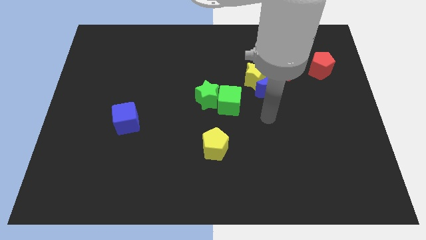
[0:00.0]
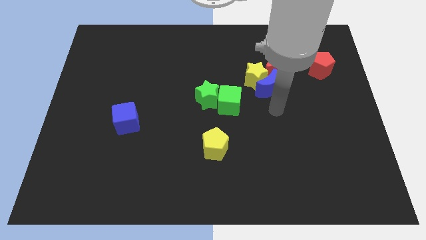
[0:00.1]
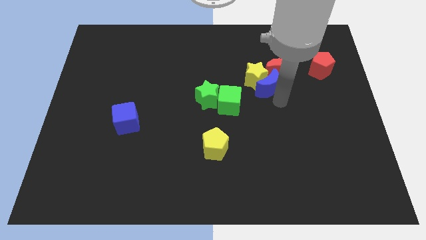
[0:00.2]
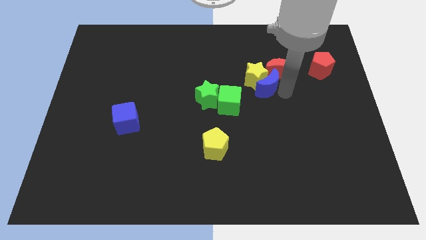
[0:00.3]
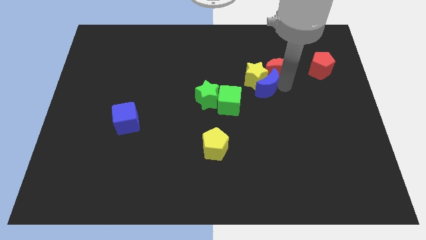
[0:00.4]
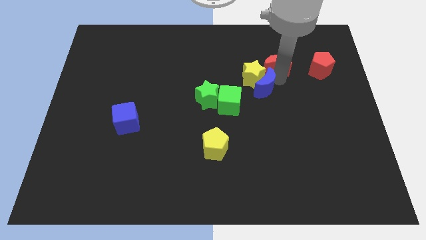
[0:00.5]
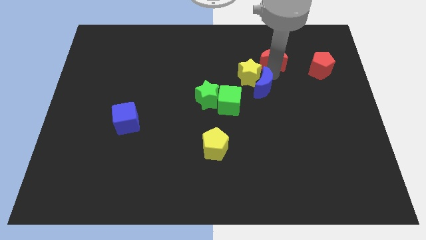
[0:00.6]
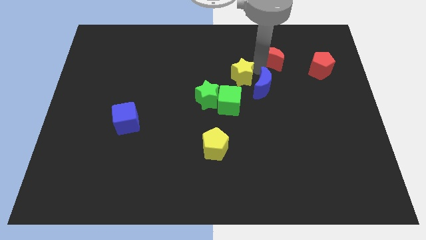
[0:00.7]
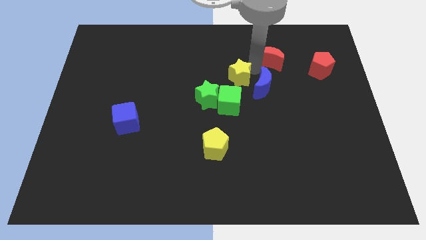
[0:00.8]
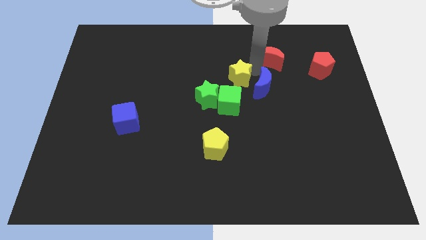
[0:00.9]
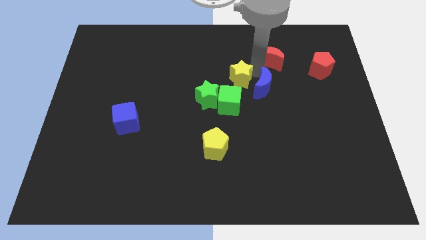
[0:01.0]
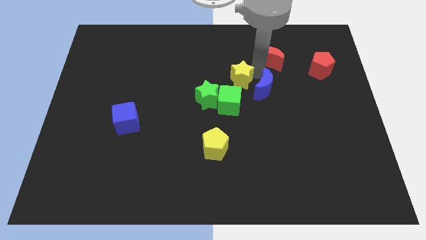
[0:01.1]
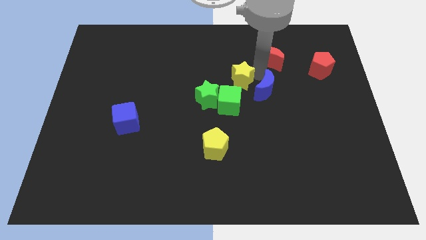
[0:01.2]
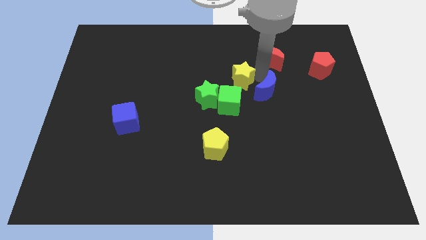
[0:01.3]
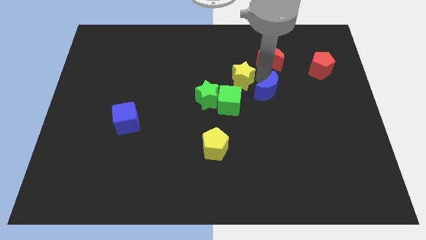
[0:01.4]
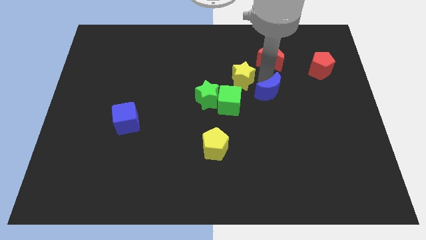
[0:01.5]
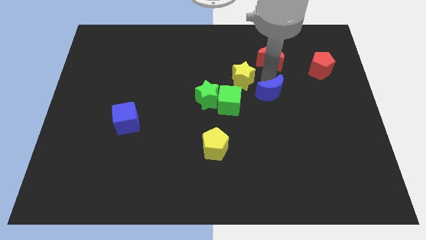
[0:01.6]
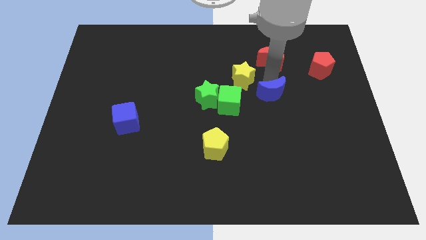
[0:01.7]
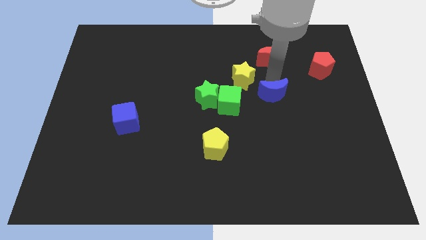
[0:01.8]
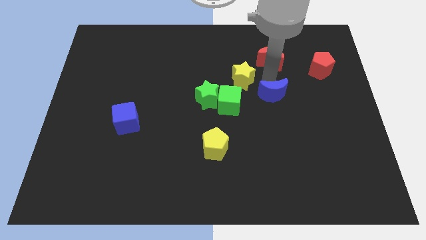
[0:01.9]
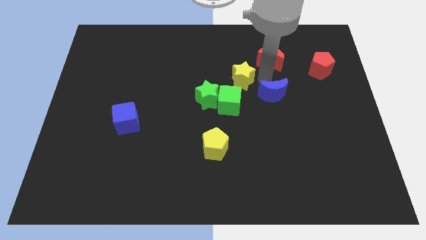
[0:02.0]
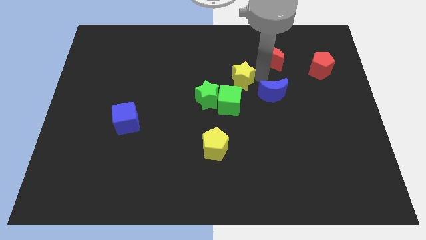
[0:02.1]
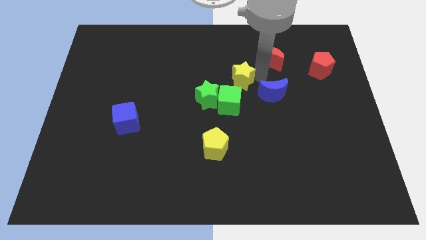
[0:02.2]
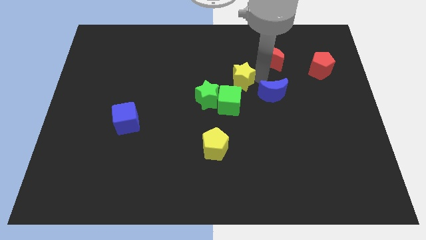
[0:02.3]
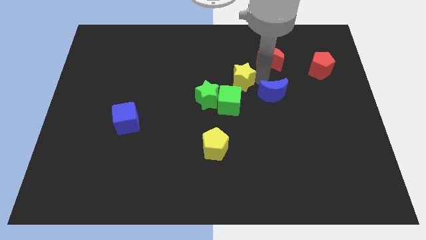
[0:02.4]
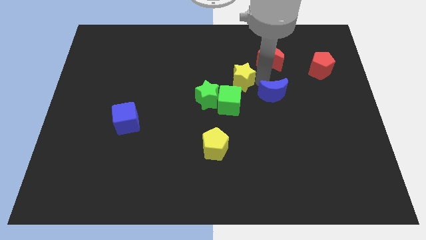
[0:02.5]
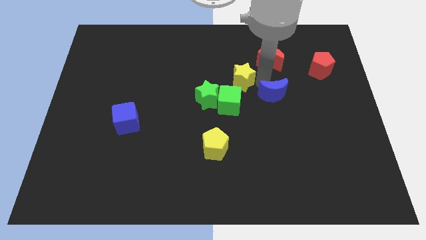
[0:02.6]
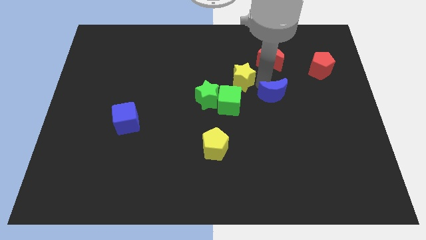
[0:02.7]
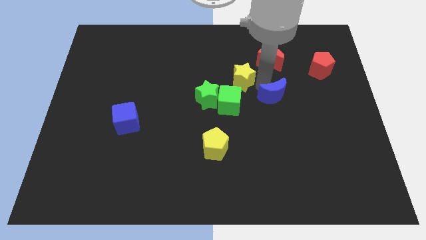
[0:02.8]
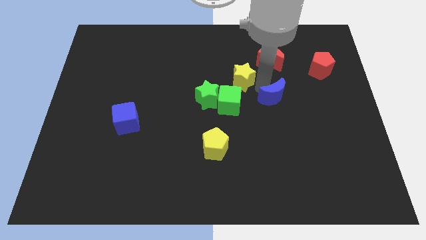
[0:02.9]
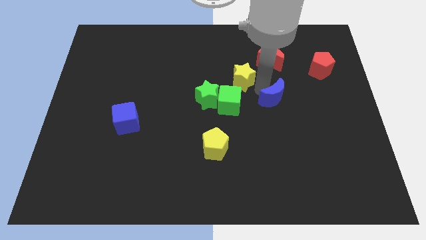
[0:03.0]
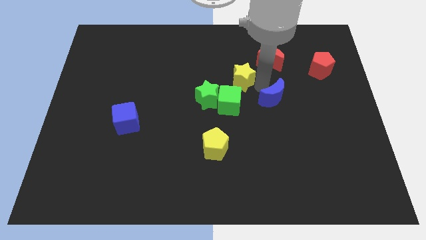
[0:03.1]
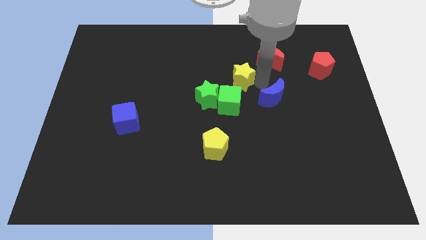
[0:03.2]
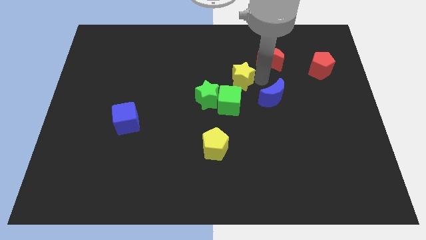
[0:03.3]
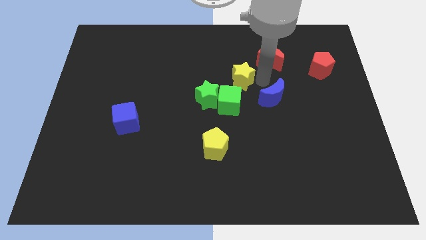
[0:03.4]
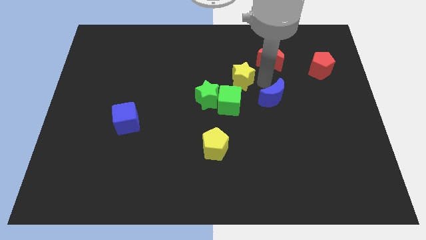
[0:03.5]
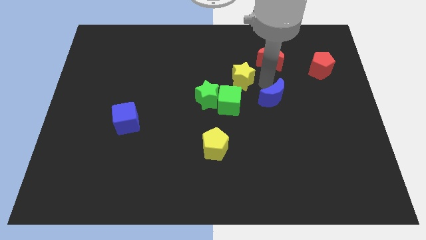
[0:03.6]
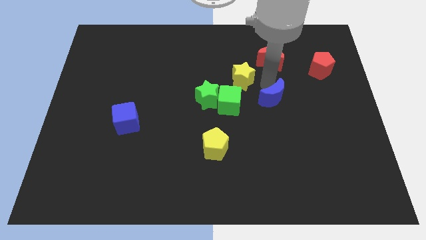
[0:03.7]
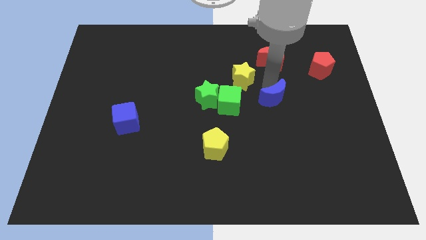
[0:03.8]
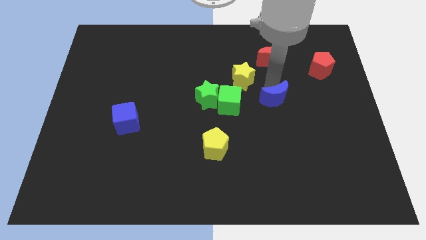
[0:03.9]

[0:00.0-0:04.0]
separate the blue moon from the yellow star and red moon

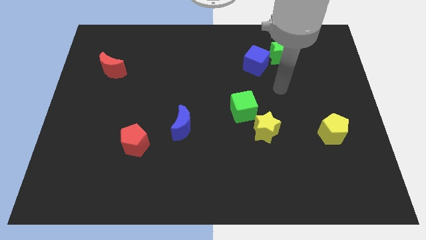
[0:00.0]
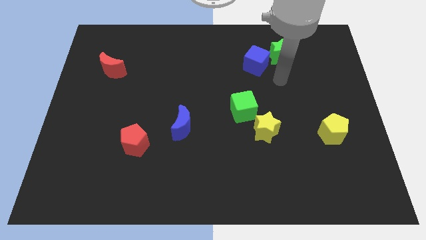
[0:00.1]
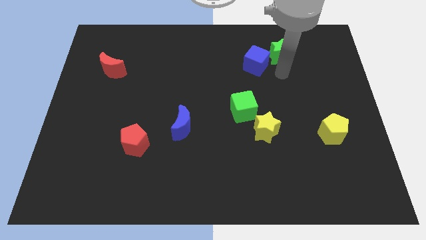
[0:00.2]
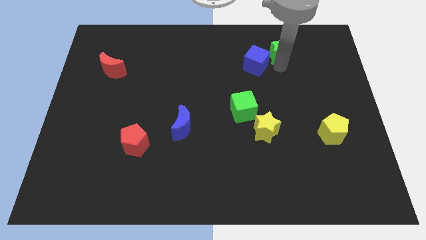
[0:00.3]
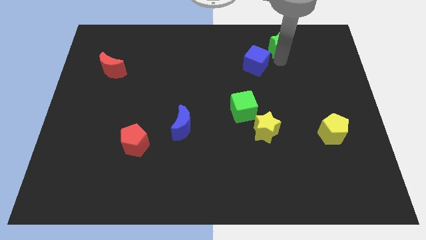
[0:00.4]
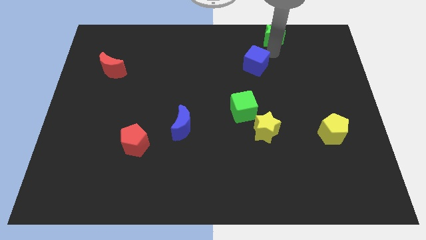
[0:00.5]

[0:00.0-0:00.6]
move the blue cube away from the green star

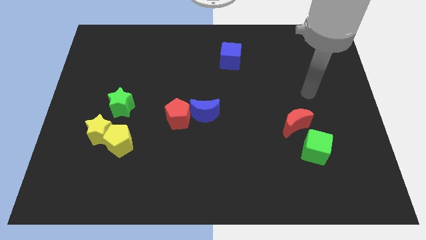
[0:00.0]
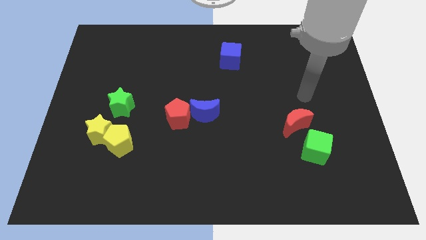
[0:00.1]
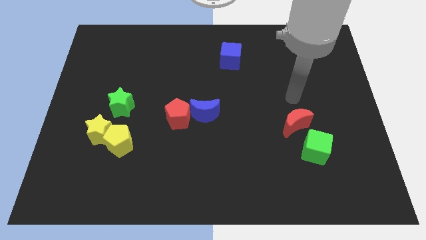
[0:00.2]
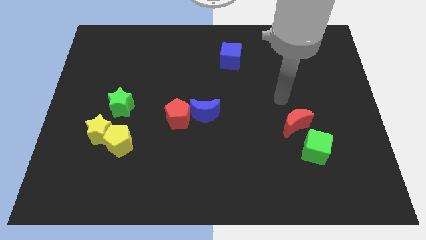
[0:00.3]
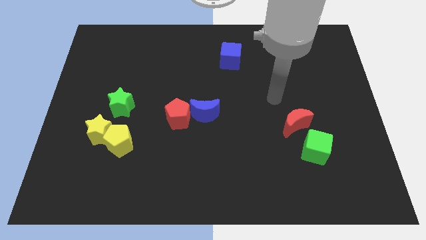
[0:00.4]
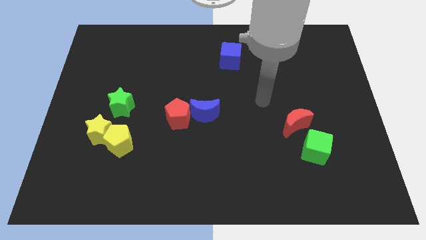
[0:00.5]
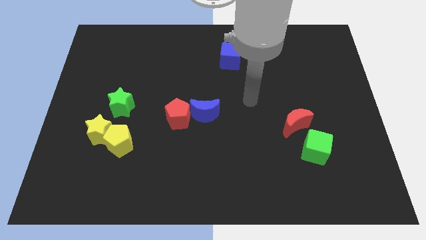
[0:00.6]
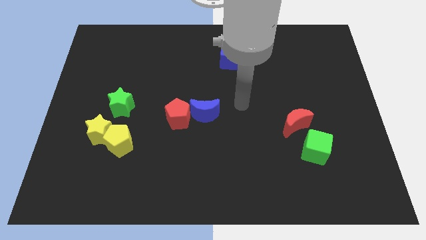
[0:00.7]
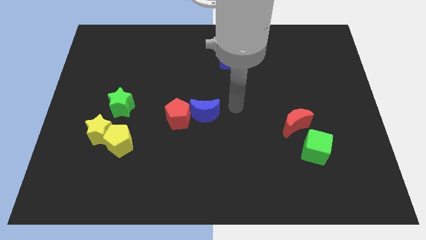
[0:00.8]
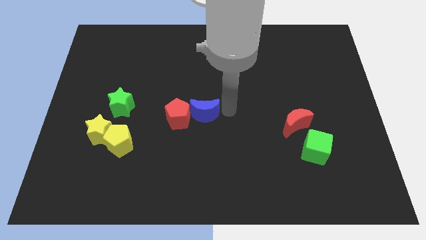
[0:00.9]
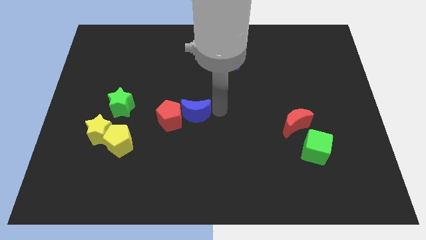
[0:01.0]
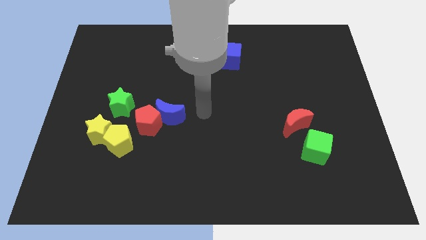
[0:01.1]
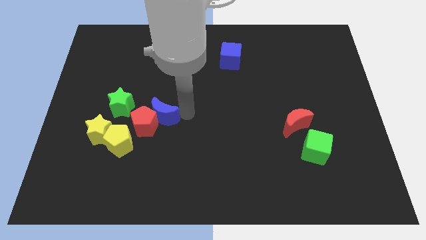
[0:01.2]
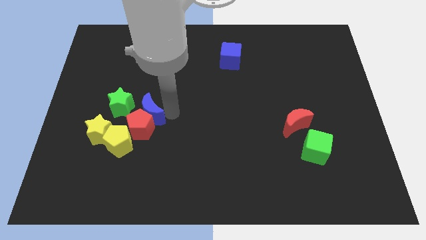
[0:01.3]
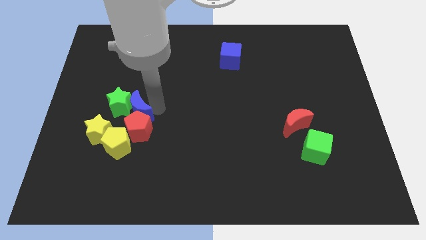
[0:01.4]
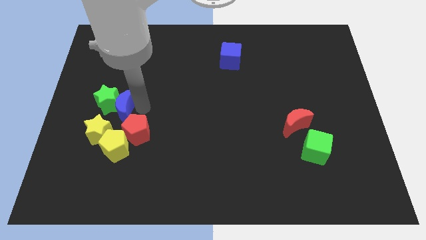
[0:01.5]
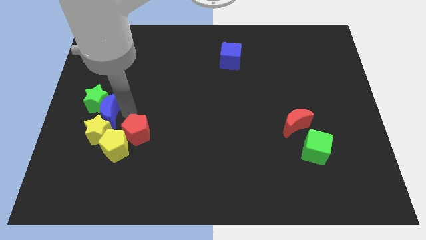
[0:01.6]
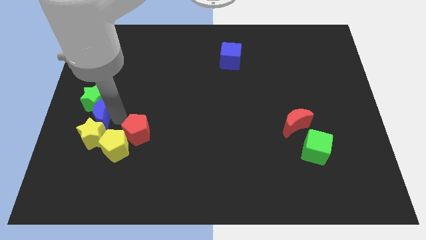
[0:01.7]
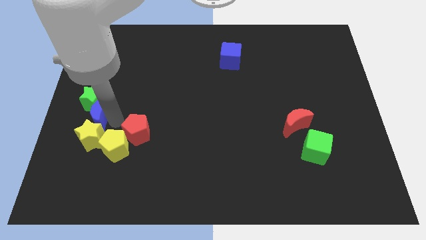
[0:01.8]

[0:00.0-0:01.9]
pull the red pentagon apart from the blue moon

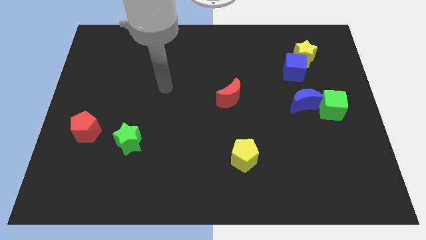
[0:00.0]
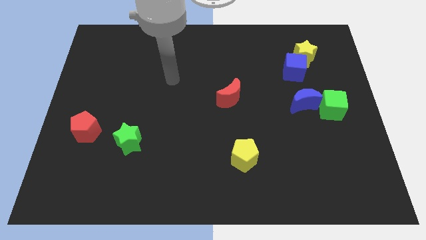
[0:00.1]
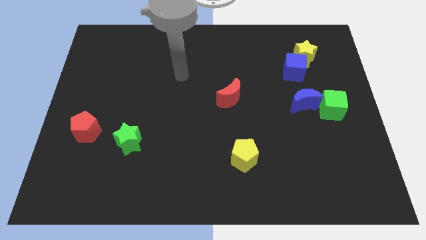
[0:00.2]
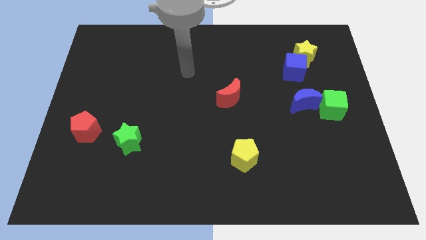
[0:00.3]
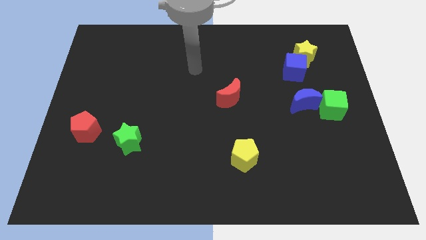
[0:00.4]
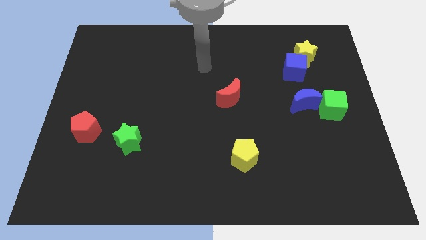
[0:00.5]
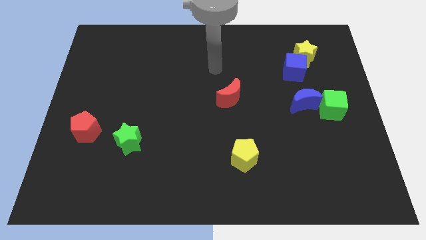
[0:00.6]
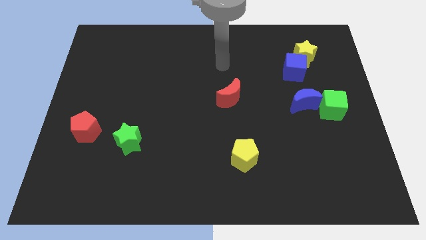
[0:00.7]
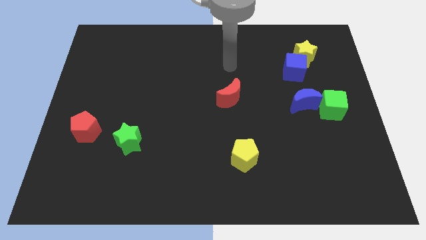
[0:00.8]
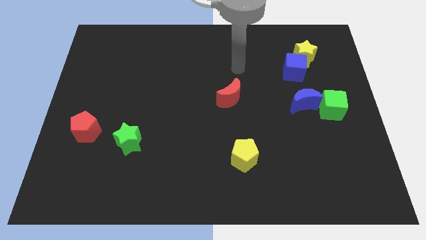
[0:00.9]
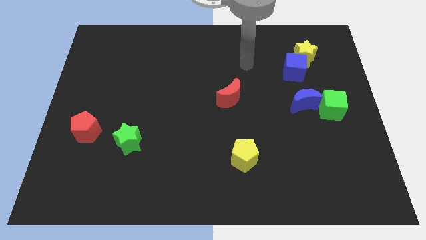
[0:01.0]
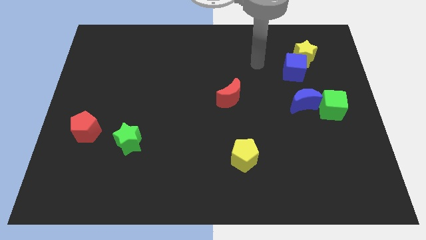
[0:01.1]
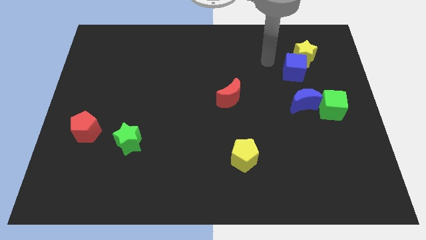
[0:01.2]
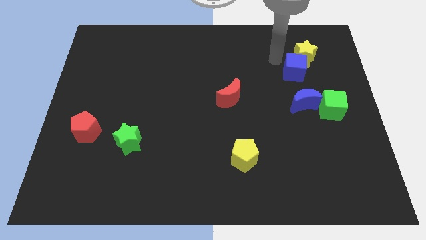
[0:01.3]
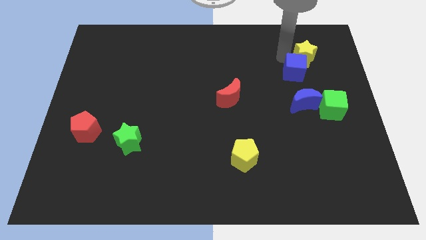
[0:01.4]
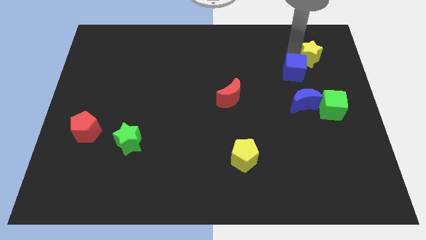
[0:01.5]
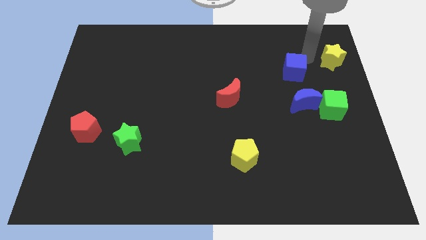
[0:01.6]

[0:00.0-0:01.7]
separate the blue cube from the yellow star

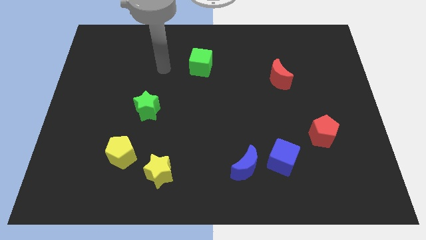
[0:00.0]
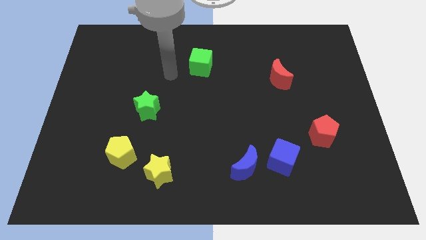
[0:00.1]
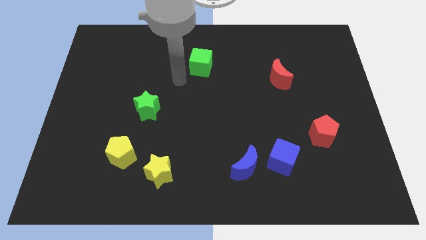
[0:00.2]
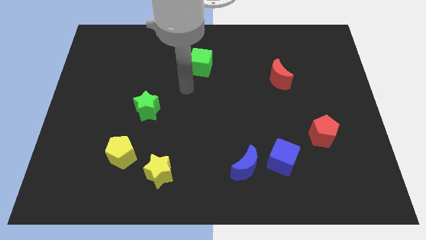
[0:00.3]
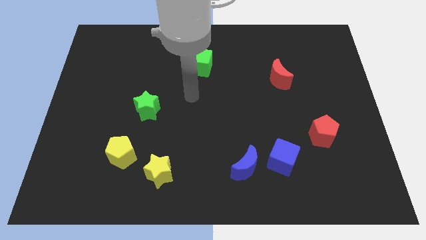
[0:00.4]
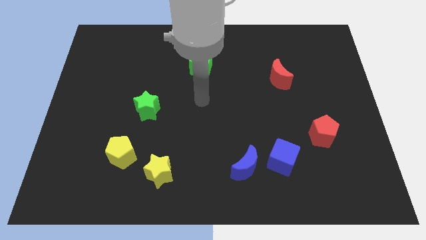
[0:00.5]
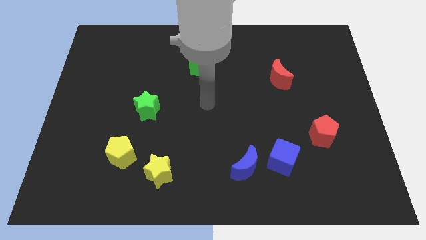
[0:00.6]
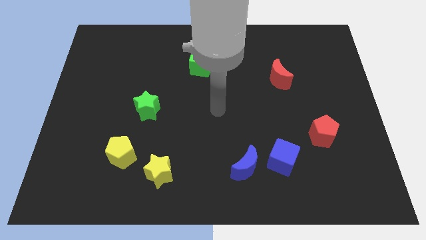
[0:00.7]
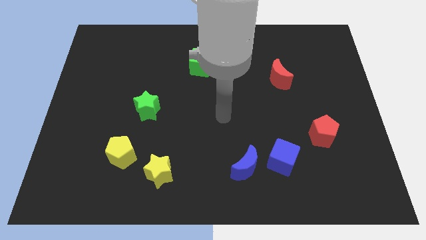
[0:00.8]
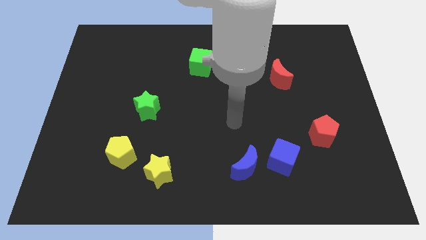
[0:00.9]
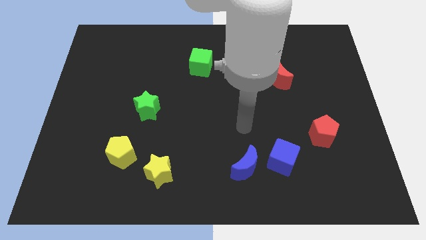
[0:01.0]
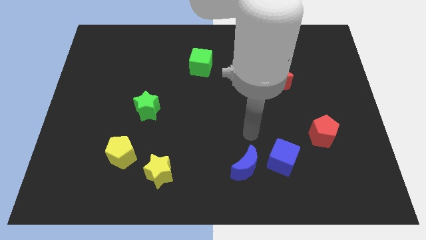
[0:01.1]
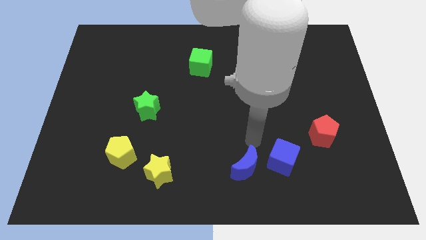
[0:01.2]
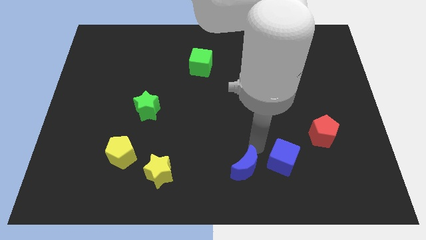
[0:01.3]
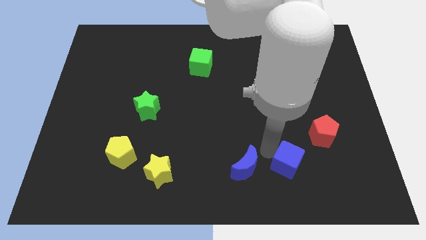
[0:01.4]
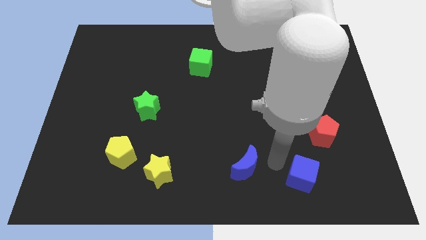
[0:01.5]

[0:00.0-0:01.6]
separate the blue moon from the blue cube
